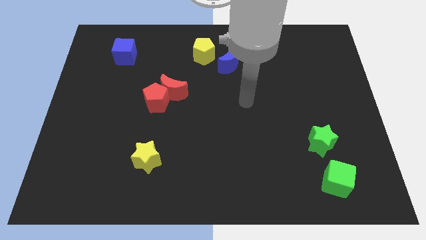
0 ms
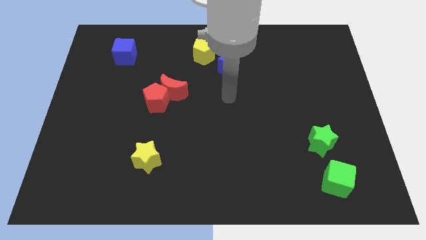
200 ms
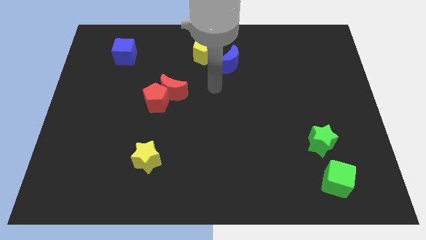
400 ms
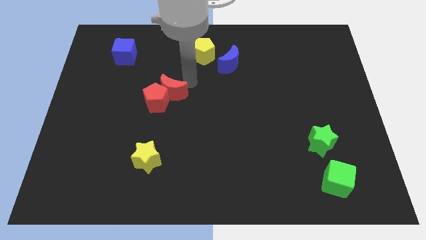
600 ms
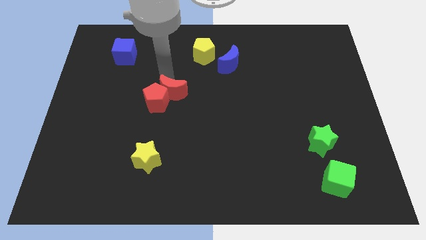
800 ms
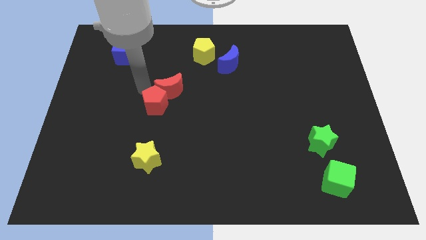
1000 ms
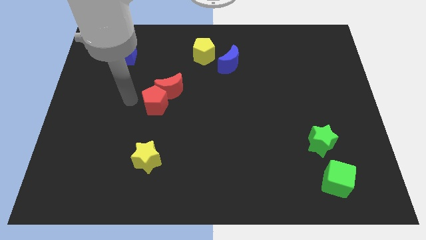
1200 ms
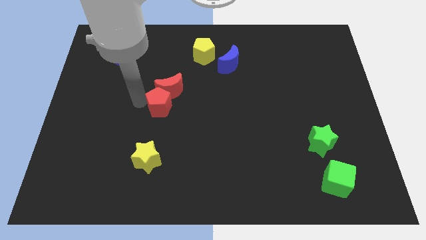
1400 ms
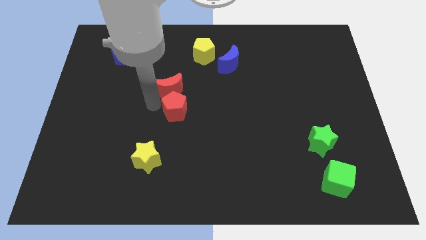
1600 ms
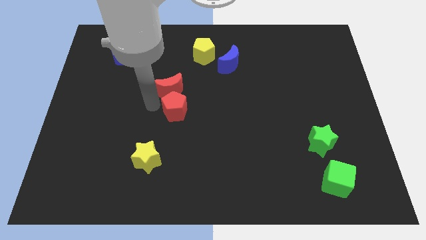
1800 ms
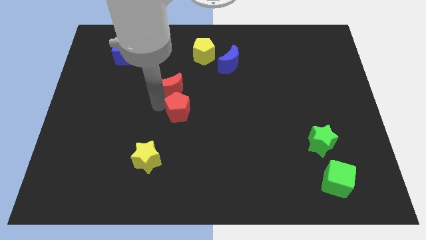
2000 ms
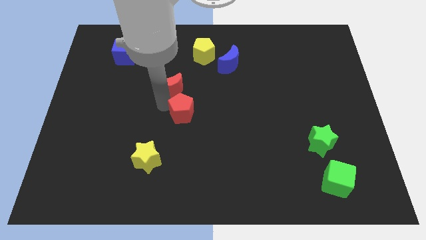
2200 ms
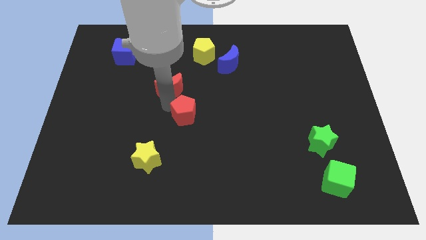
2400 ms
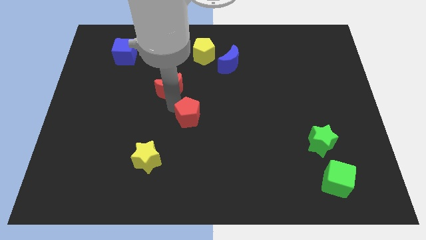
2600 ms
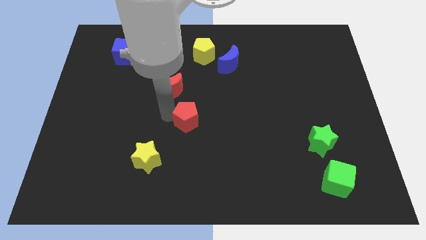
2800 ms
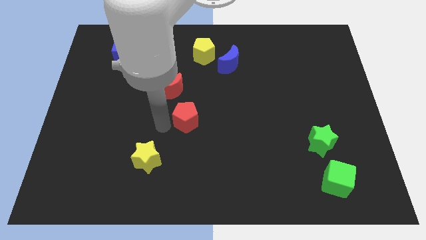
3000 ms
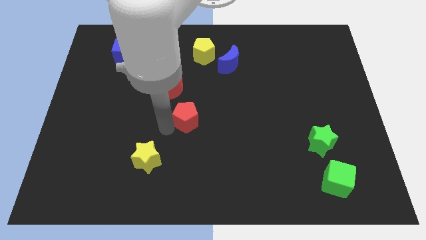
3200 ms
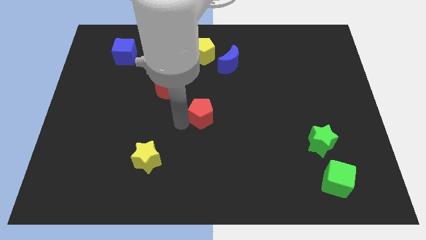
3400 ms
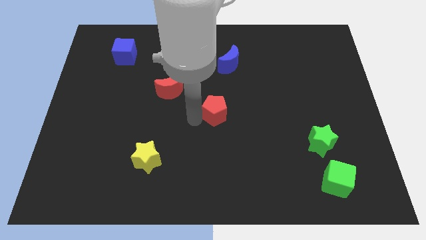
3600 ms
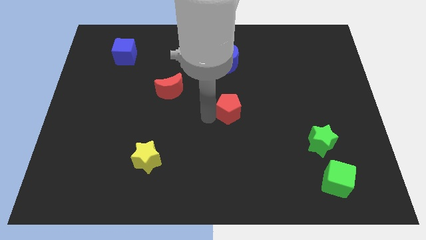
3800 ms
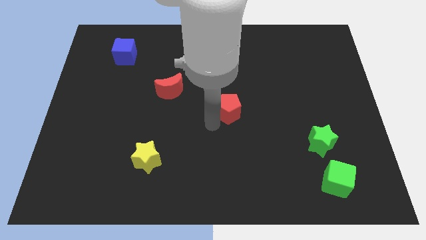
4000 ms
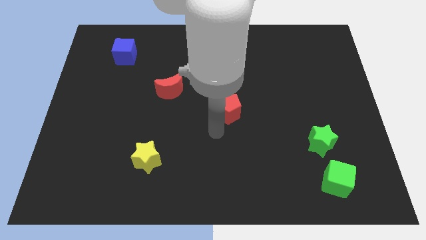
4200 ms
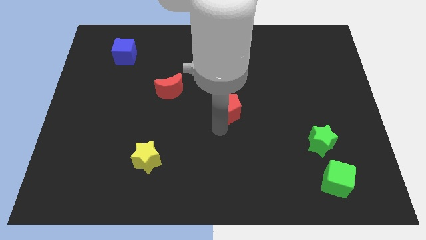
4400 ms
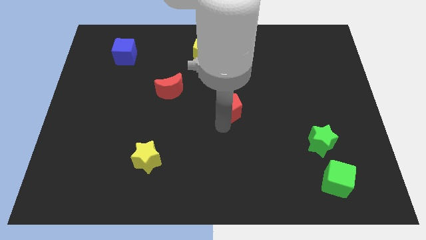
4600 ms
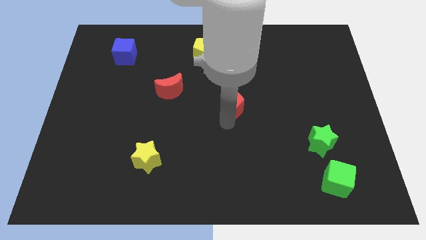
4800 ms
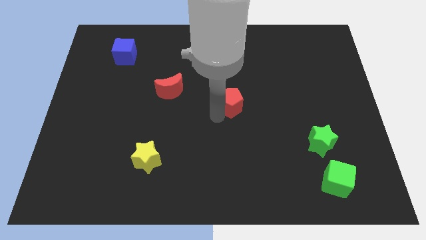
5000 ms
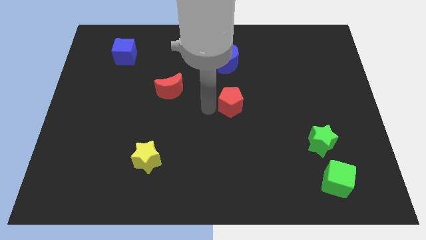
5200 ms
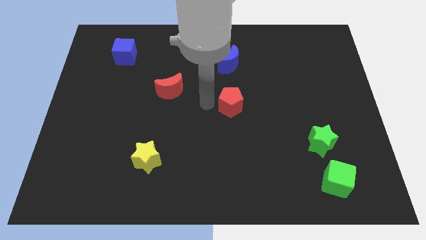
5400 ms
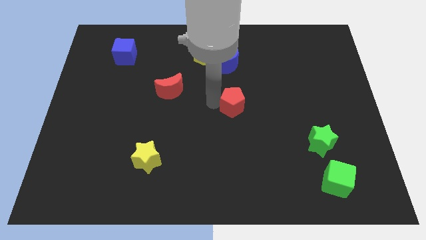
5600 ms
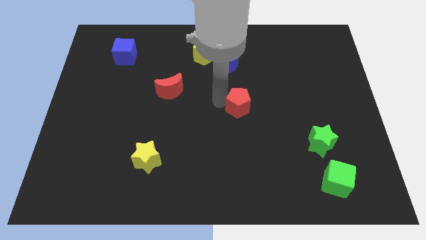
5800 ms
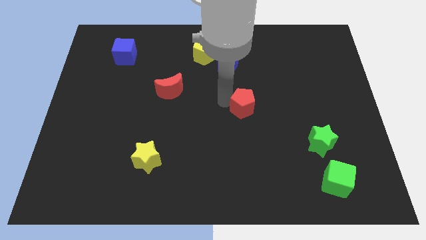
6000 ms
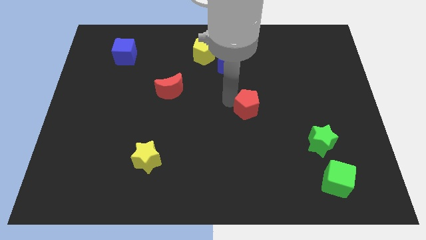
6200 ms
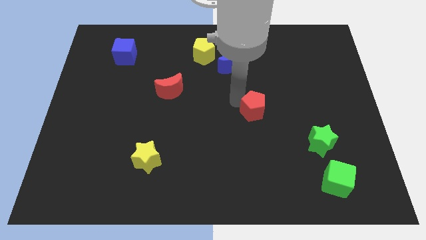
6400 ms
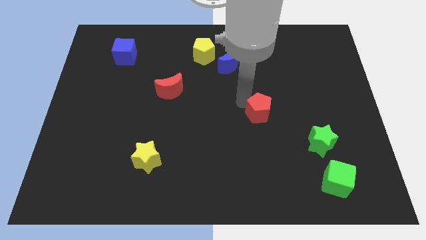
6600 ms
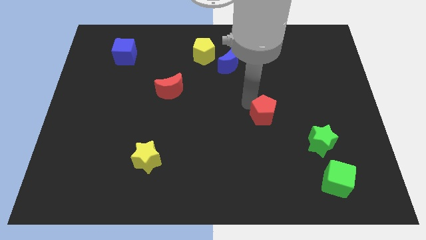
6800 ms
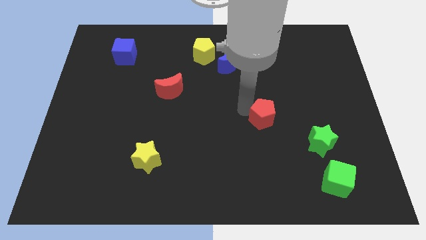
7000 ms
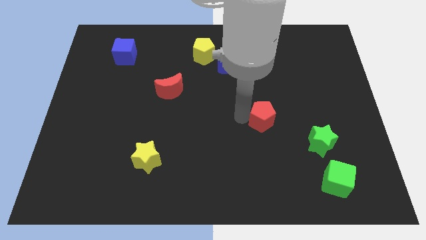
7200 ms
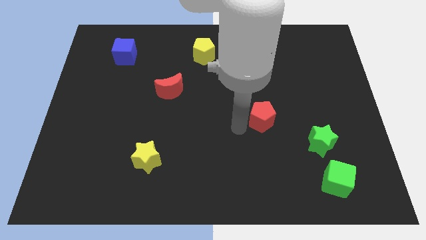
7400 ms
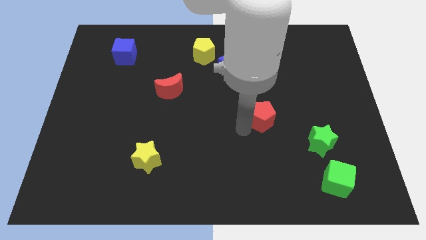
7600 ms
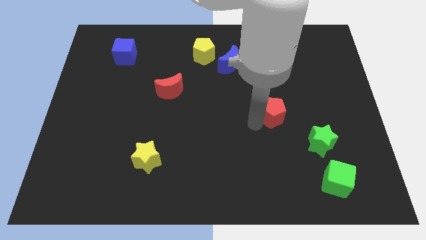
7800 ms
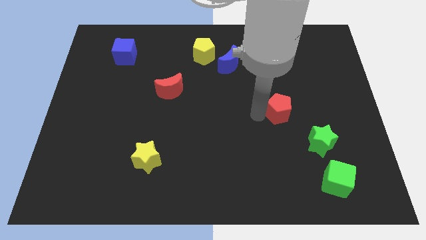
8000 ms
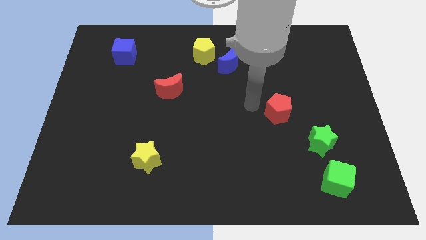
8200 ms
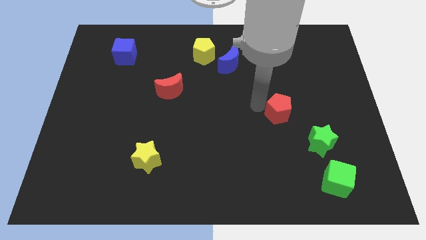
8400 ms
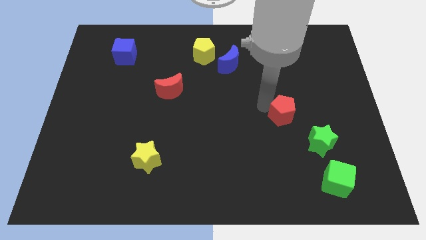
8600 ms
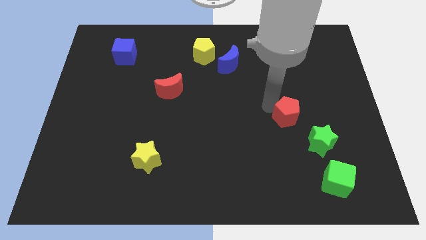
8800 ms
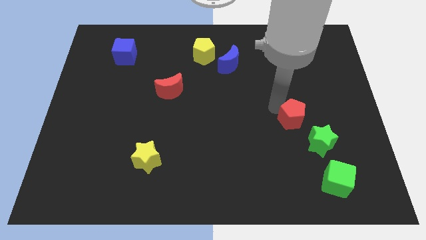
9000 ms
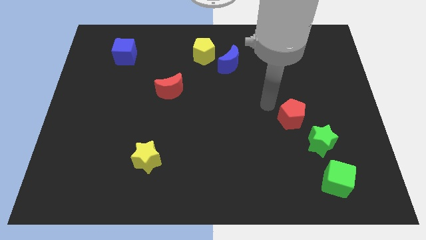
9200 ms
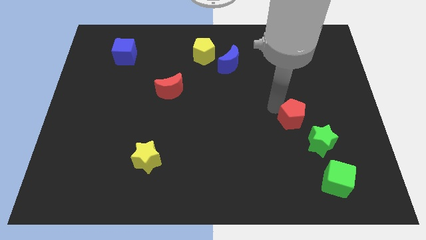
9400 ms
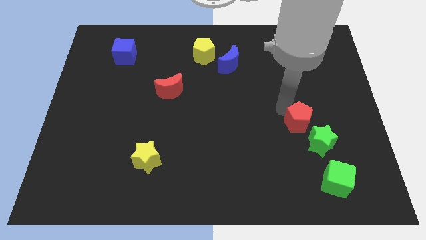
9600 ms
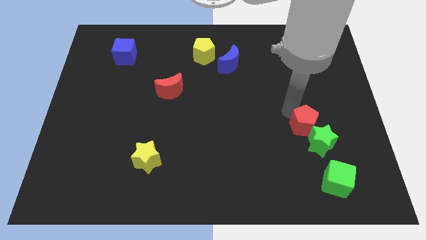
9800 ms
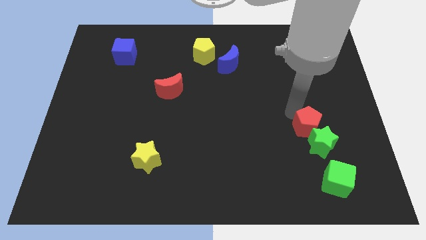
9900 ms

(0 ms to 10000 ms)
move the red pentagon to the top of the green cube

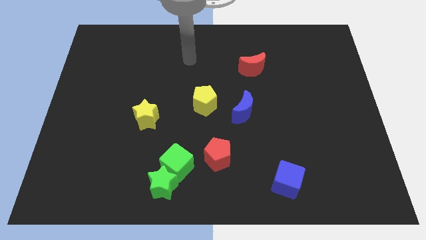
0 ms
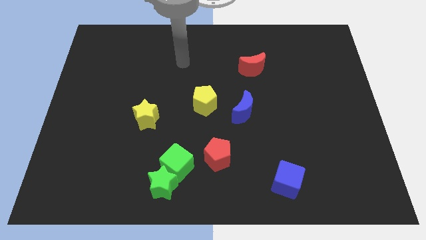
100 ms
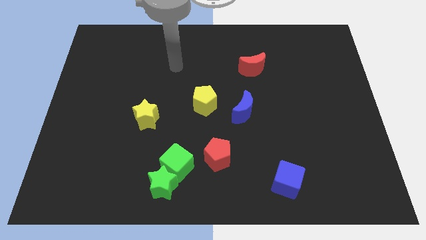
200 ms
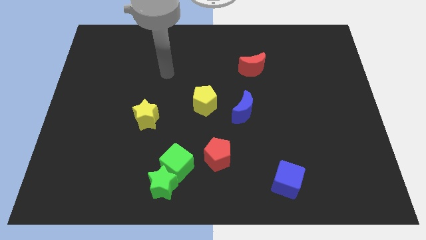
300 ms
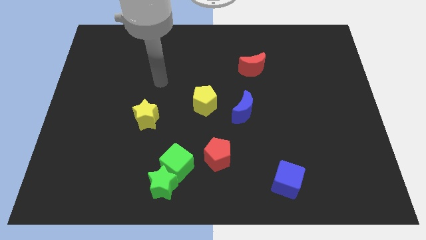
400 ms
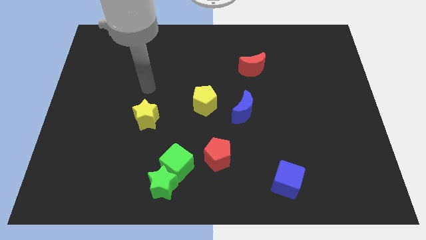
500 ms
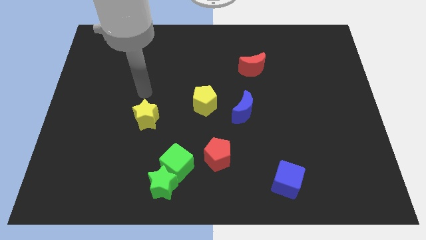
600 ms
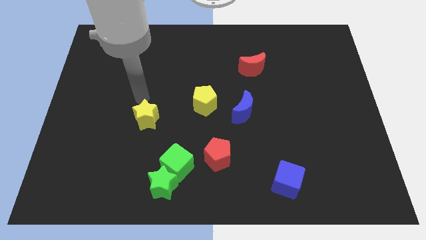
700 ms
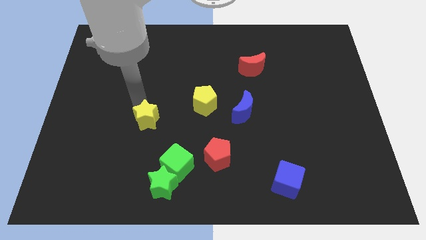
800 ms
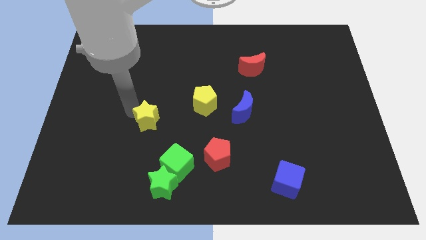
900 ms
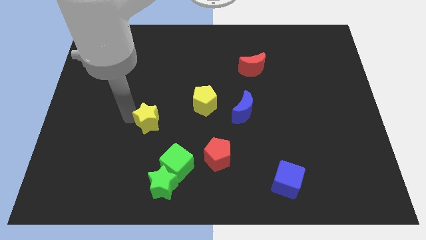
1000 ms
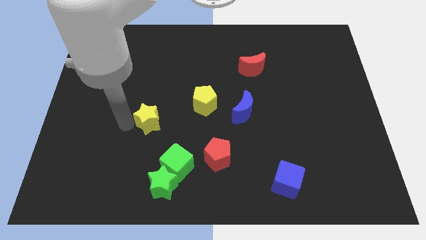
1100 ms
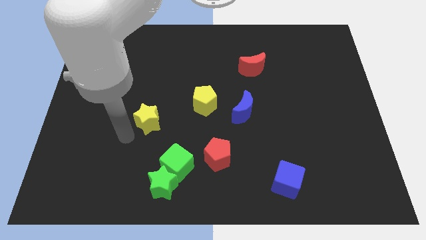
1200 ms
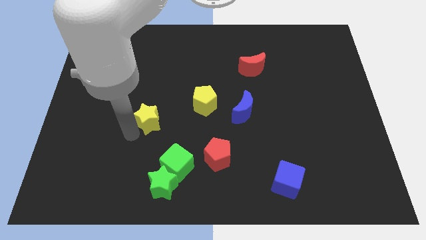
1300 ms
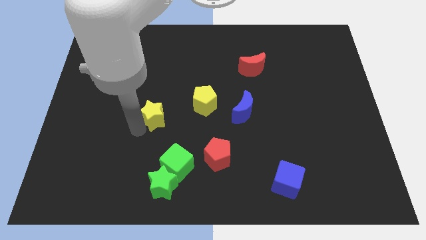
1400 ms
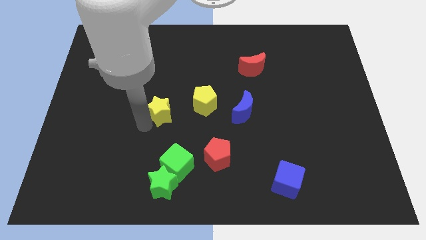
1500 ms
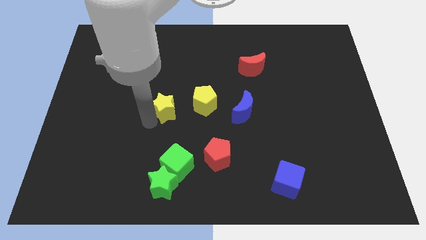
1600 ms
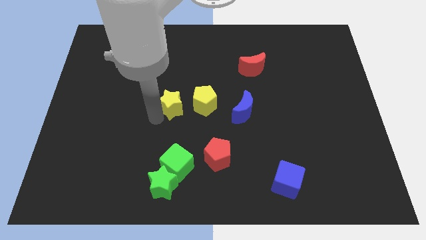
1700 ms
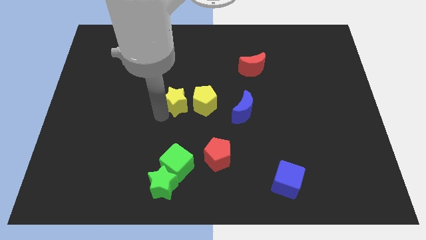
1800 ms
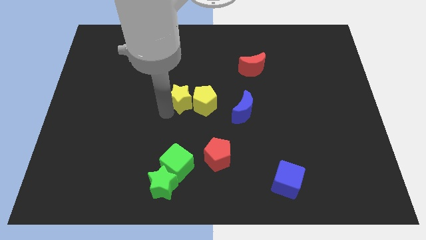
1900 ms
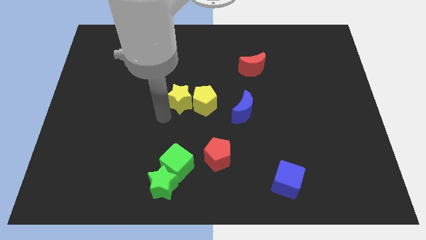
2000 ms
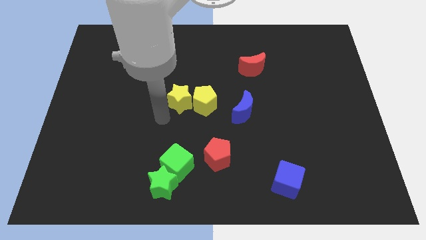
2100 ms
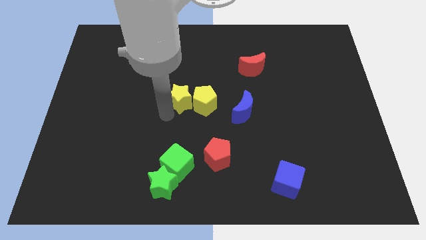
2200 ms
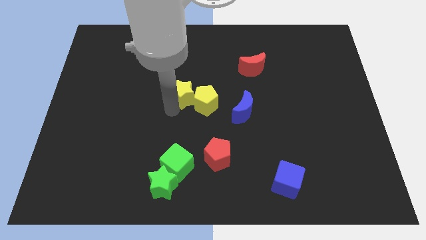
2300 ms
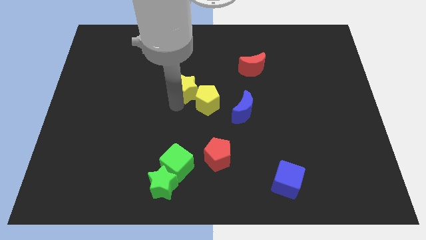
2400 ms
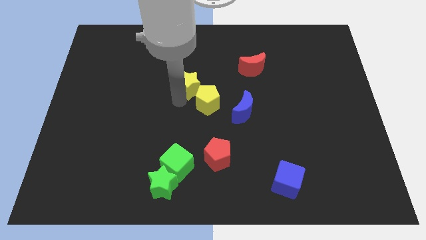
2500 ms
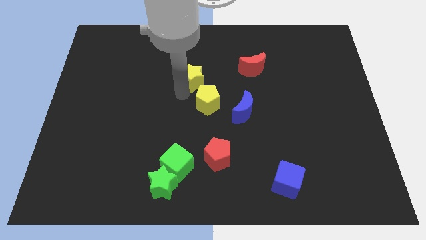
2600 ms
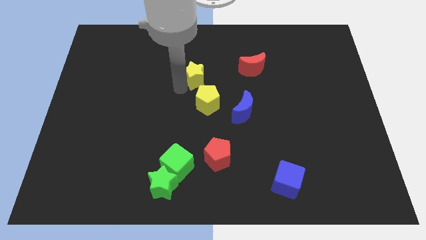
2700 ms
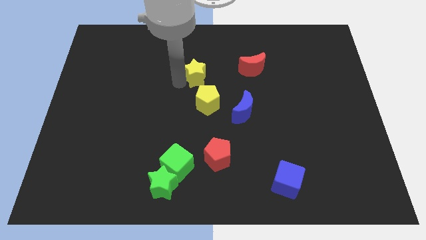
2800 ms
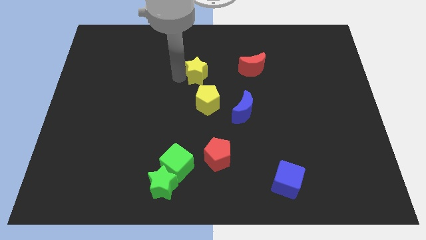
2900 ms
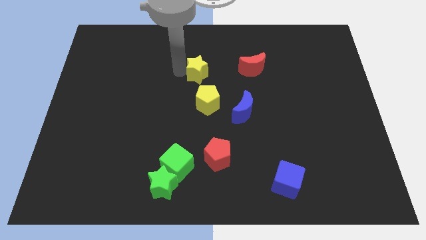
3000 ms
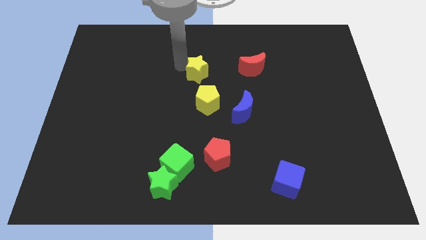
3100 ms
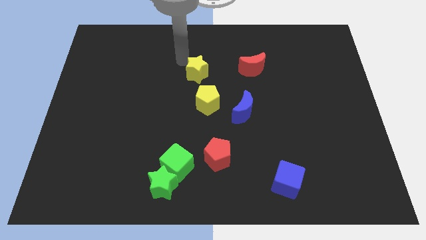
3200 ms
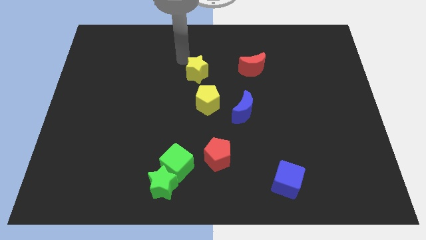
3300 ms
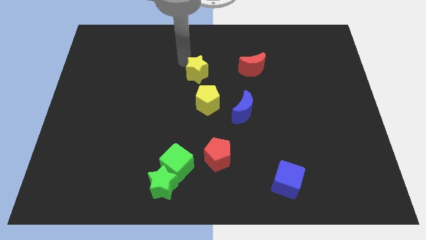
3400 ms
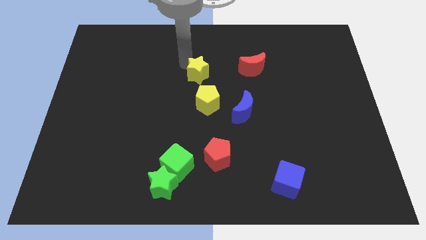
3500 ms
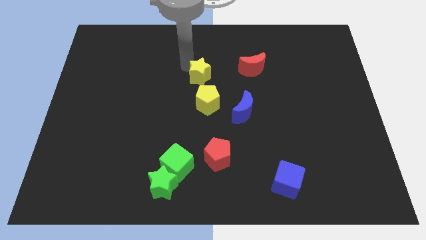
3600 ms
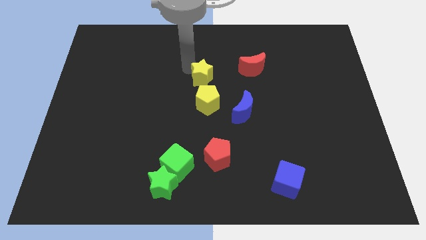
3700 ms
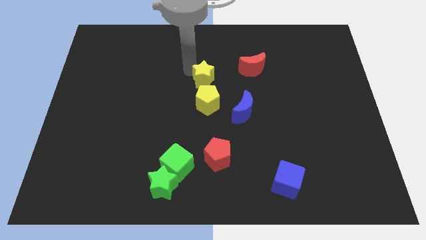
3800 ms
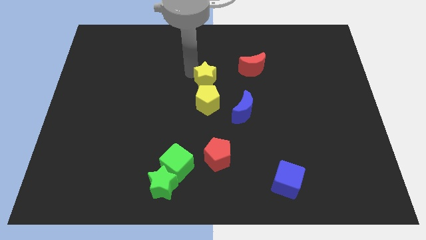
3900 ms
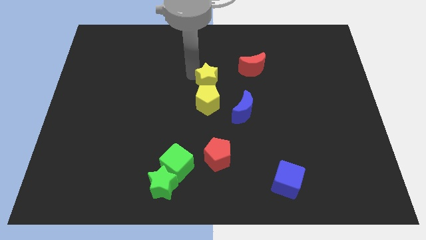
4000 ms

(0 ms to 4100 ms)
push the yellow star to the top left of the blue moon
